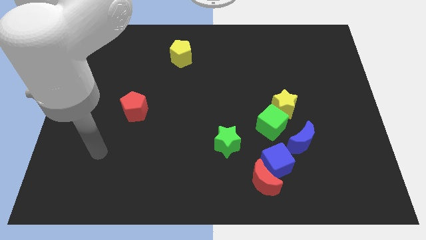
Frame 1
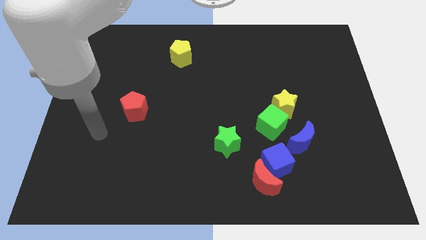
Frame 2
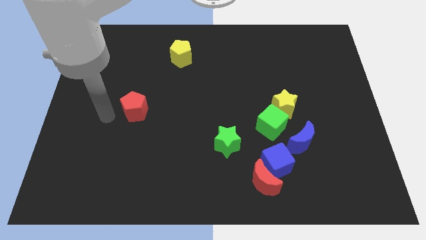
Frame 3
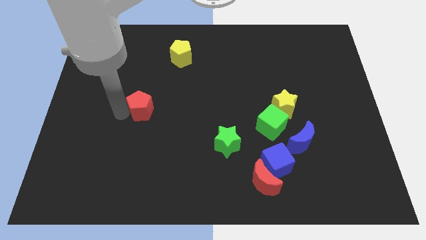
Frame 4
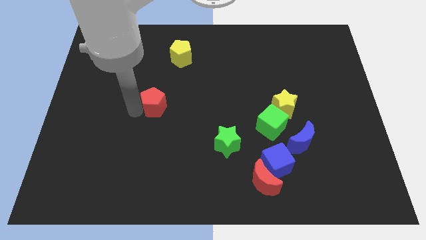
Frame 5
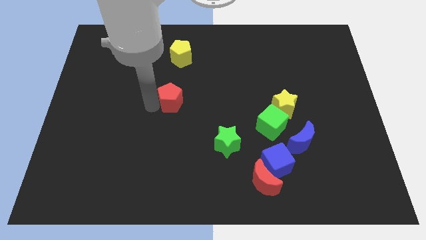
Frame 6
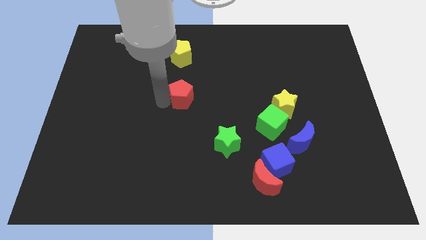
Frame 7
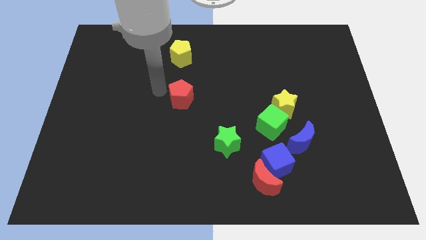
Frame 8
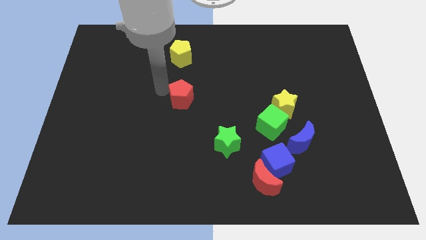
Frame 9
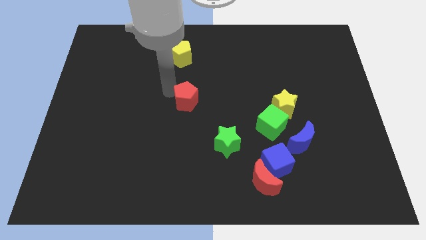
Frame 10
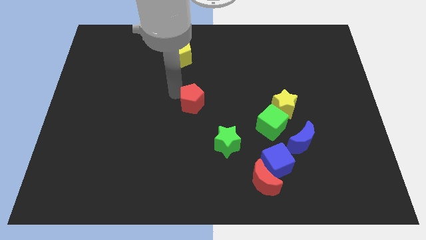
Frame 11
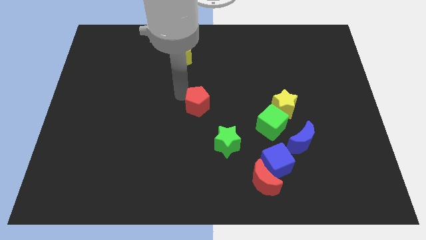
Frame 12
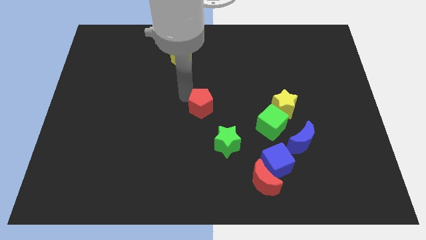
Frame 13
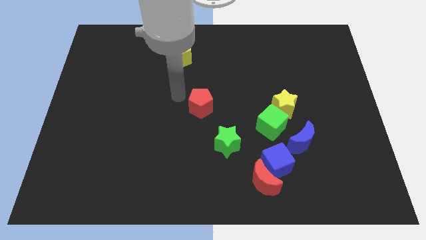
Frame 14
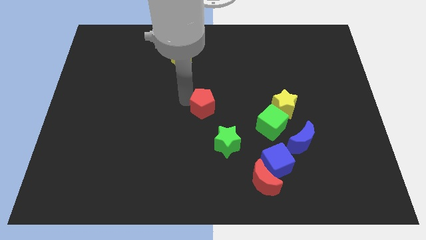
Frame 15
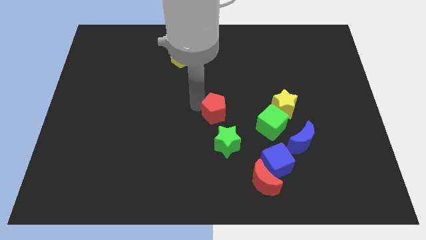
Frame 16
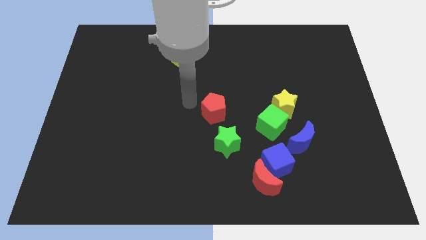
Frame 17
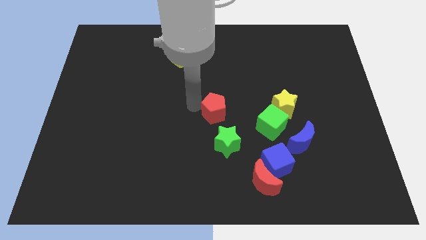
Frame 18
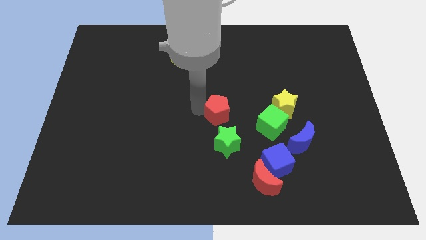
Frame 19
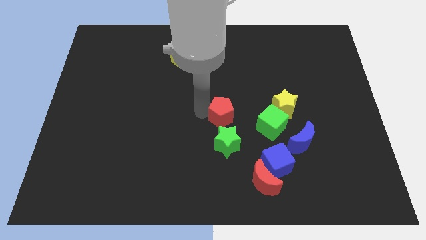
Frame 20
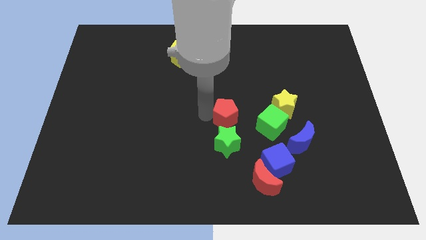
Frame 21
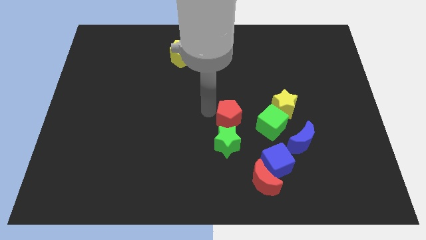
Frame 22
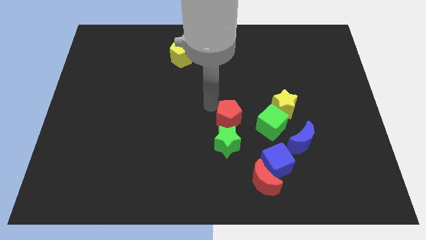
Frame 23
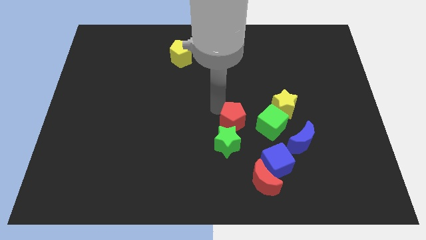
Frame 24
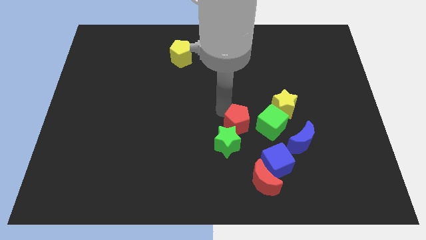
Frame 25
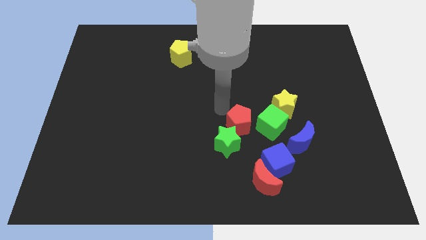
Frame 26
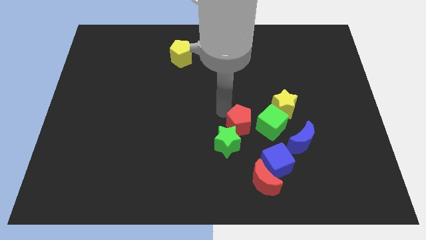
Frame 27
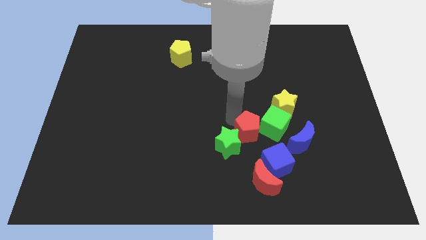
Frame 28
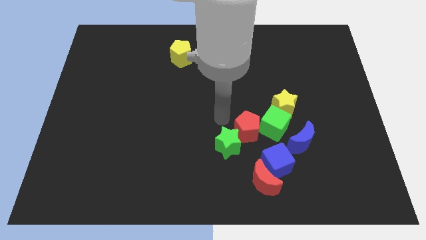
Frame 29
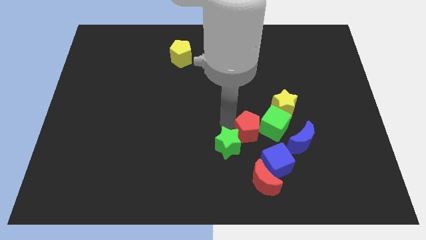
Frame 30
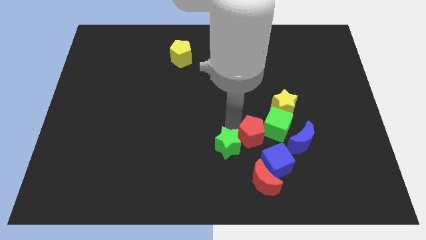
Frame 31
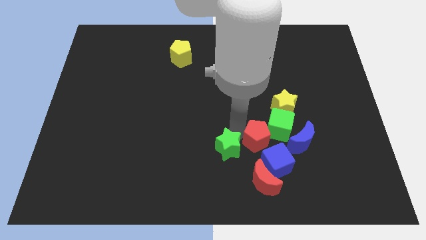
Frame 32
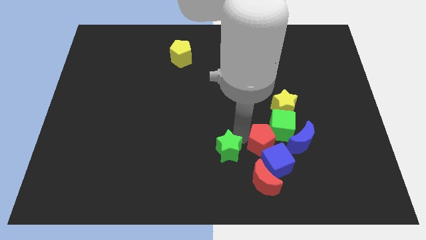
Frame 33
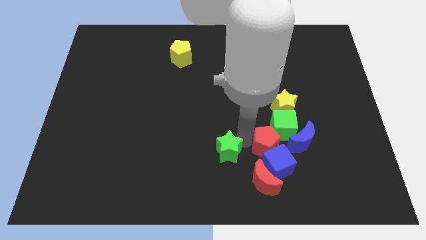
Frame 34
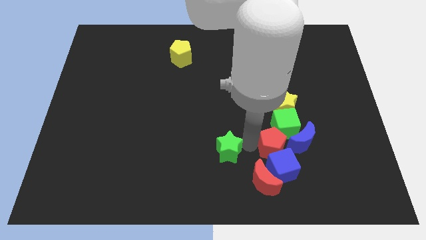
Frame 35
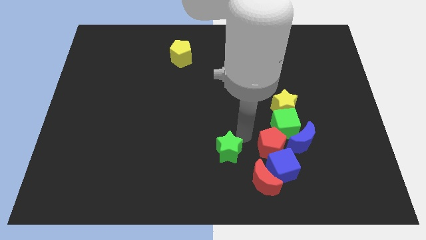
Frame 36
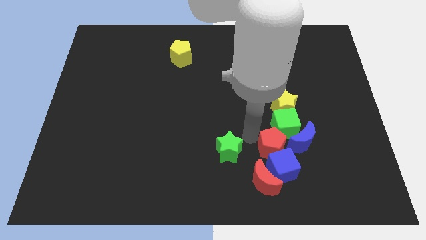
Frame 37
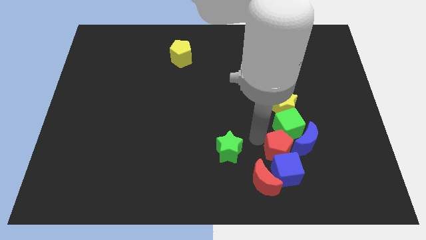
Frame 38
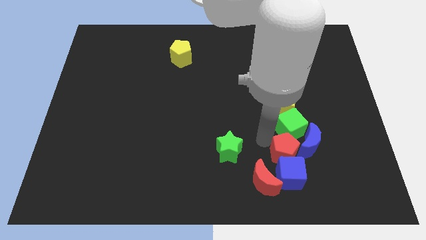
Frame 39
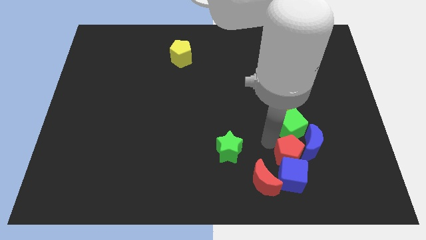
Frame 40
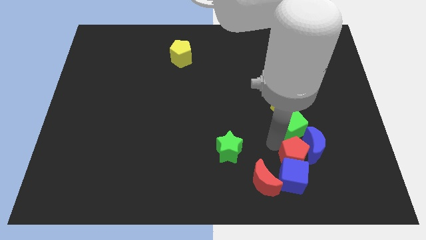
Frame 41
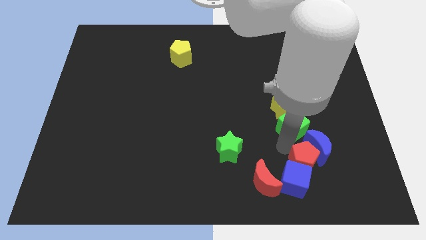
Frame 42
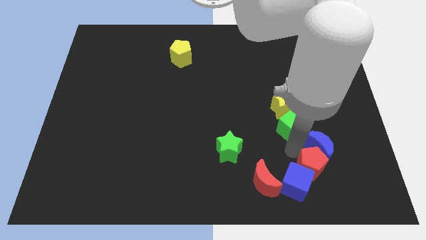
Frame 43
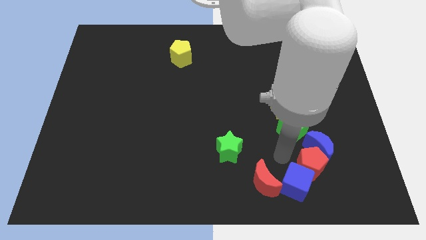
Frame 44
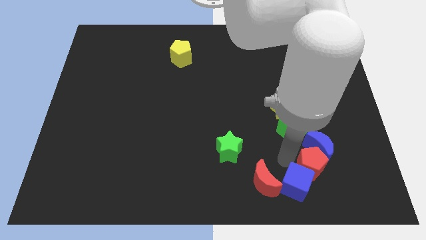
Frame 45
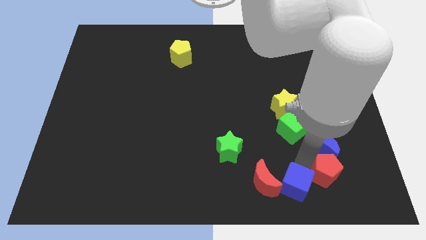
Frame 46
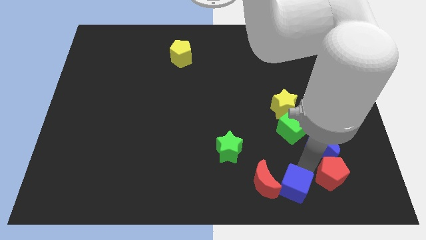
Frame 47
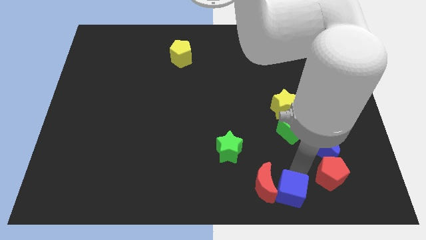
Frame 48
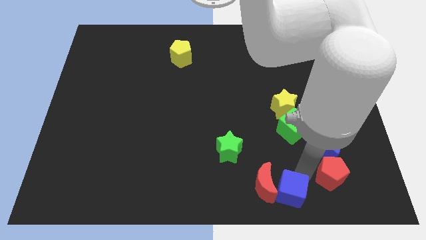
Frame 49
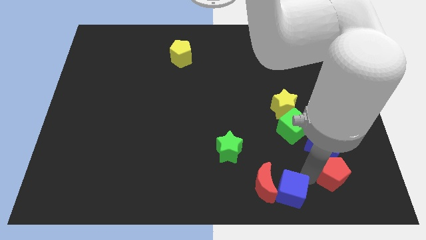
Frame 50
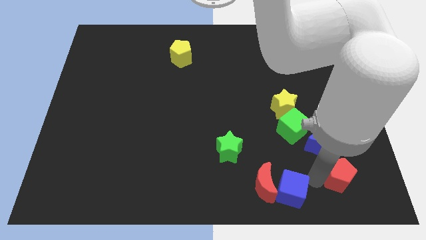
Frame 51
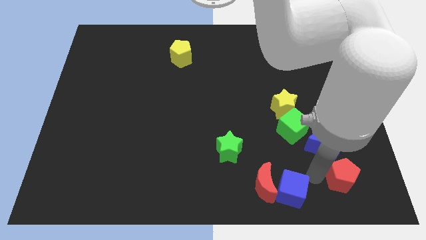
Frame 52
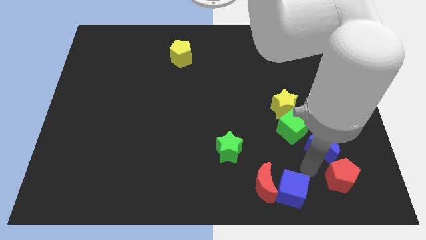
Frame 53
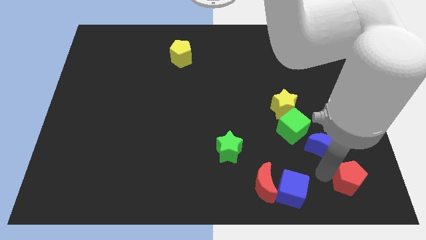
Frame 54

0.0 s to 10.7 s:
slide the red pentagon to the bottom right corner

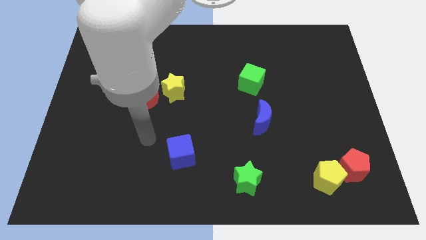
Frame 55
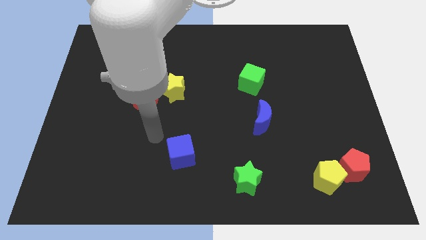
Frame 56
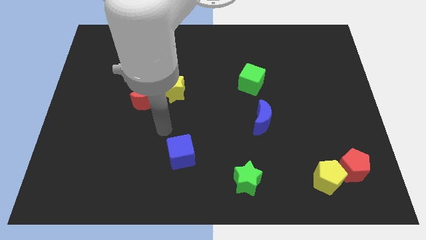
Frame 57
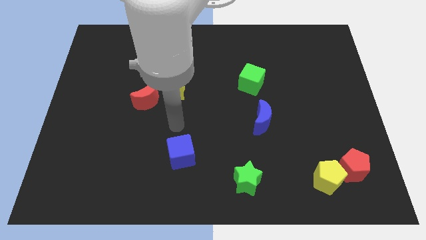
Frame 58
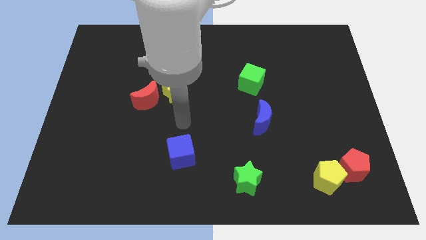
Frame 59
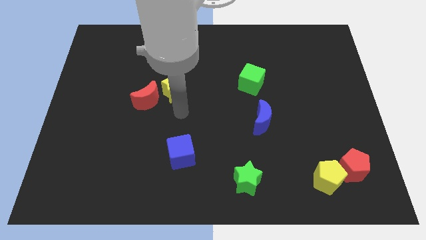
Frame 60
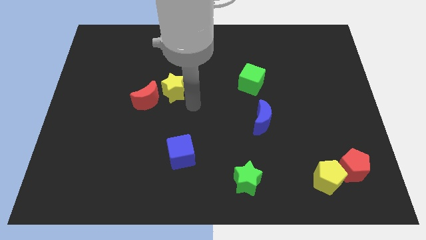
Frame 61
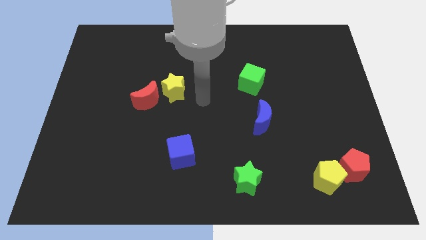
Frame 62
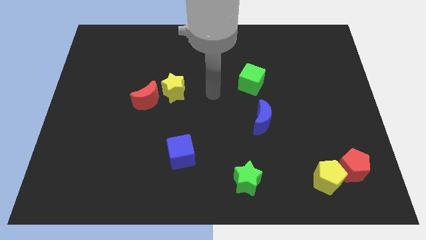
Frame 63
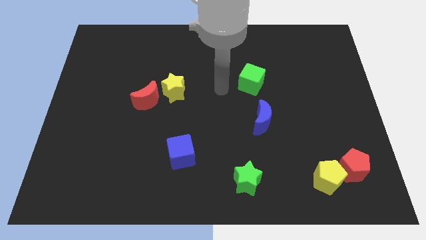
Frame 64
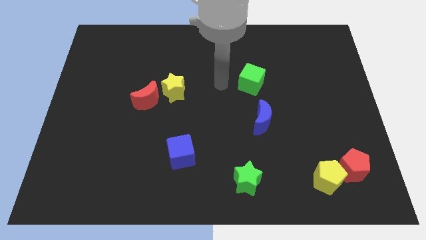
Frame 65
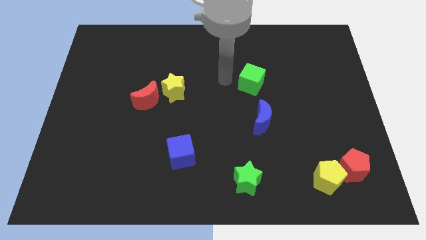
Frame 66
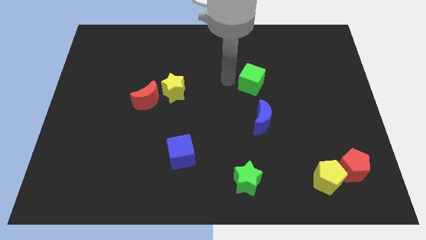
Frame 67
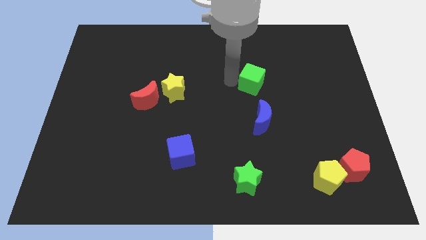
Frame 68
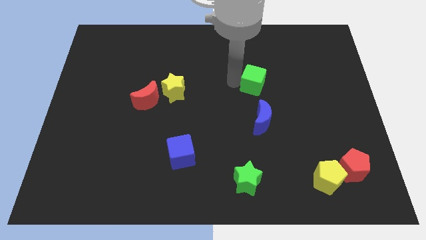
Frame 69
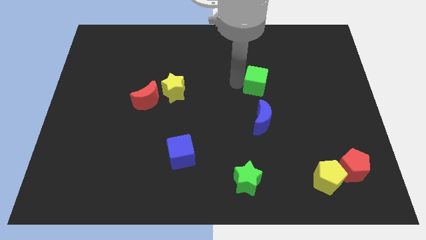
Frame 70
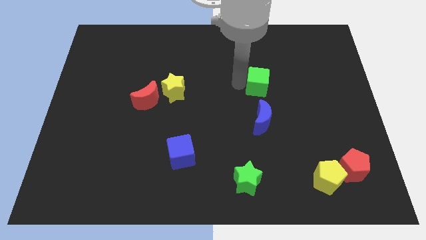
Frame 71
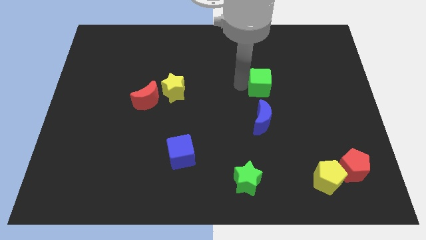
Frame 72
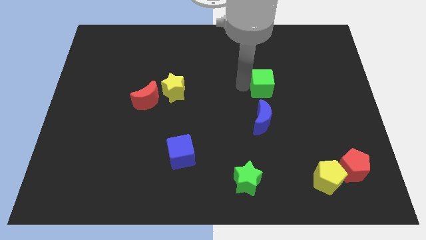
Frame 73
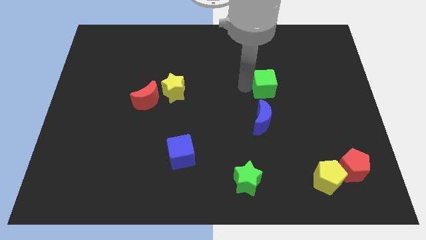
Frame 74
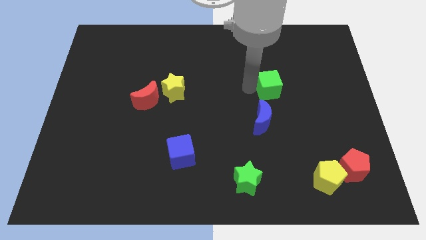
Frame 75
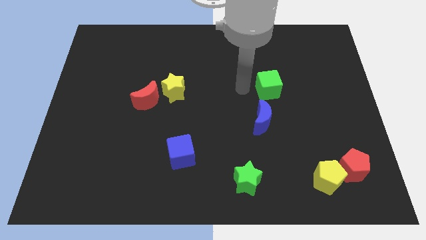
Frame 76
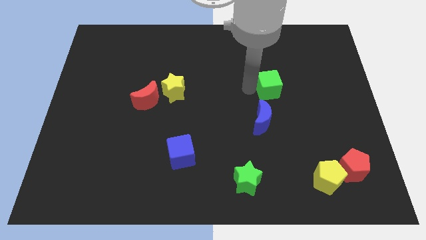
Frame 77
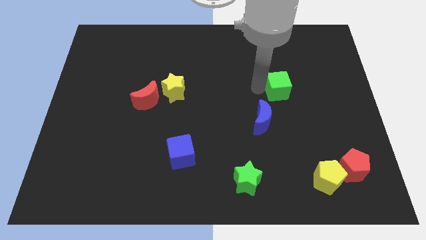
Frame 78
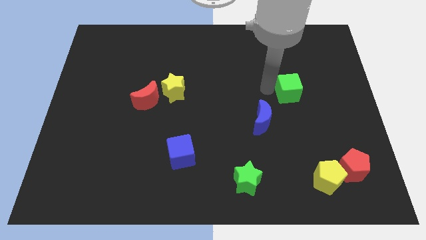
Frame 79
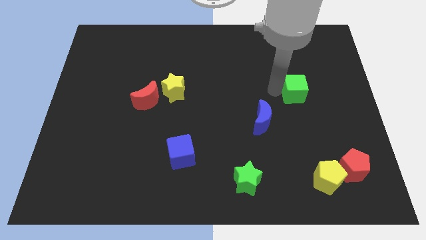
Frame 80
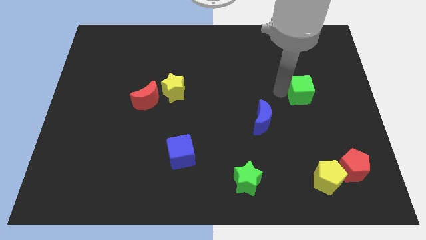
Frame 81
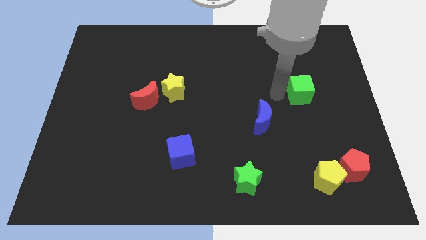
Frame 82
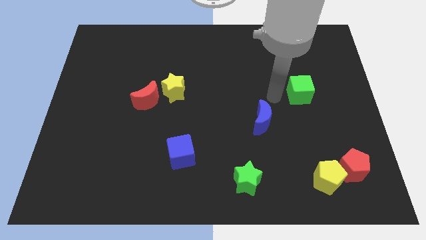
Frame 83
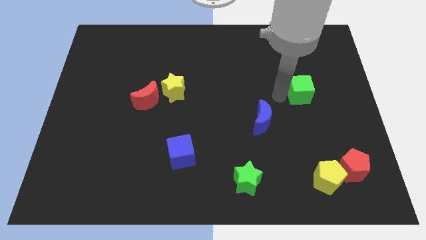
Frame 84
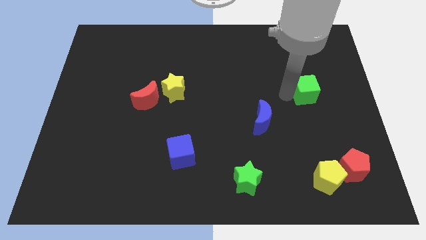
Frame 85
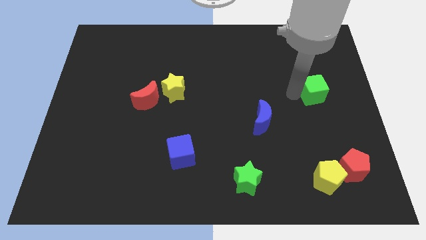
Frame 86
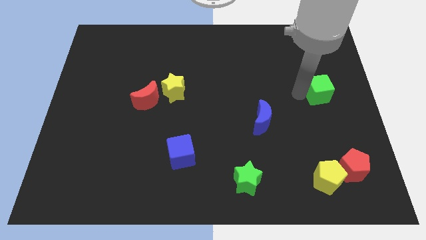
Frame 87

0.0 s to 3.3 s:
move the green cube to the right side of the board

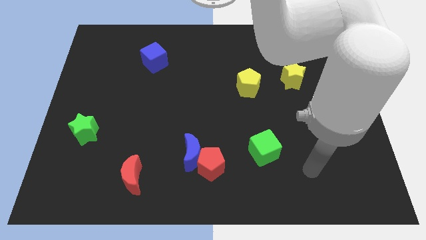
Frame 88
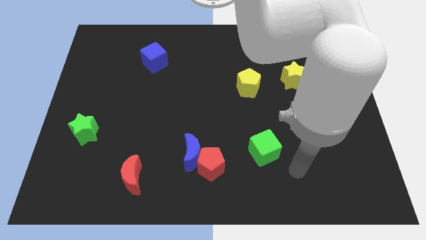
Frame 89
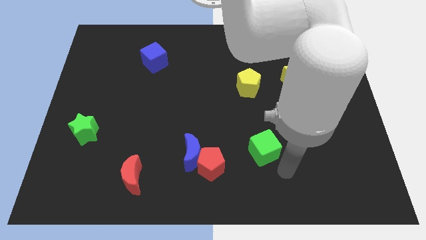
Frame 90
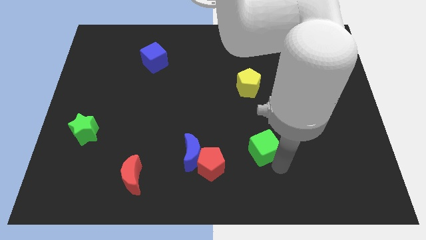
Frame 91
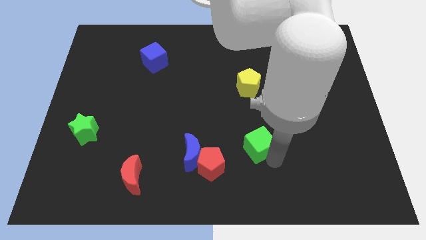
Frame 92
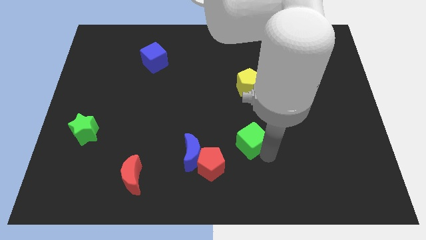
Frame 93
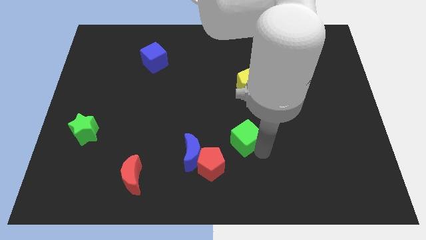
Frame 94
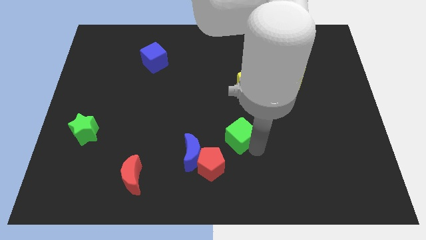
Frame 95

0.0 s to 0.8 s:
slide the green cube to the middle of the board
